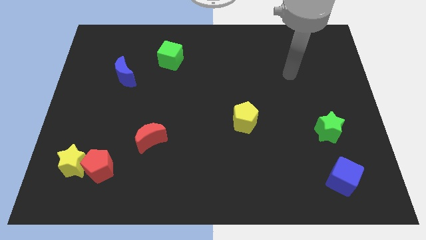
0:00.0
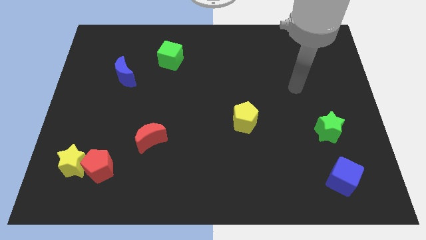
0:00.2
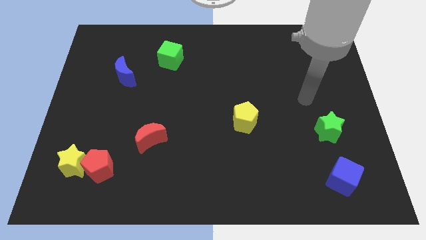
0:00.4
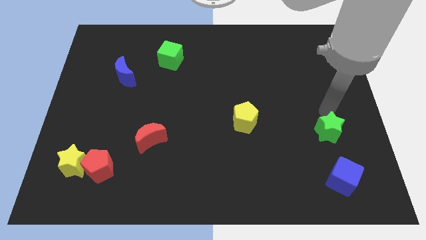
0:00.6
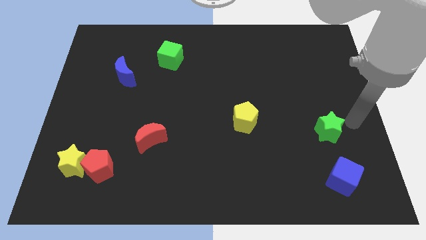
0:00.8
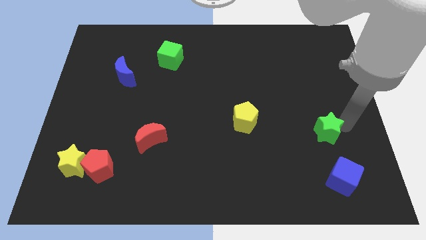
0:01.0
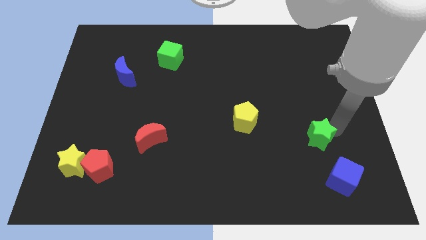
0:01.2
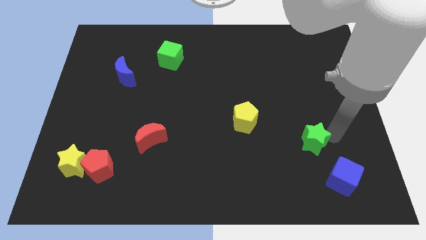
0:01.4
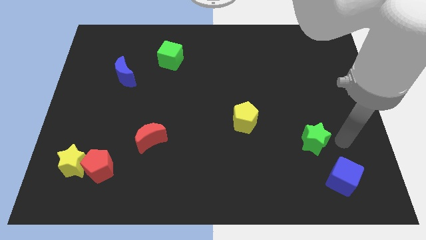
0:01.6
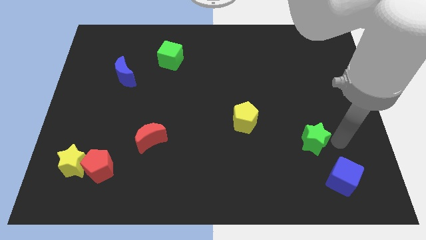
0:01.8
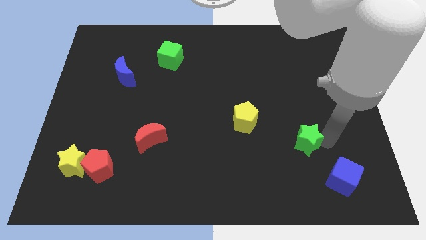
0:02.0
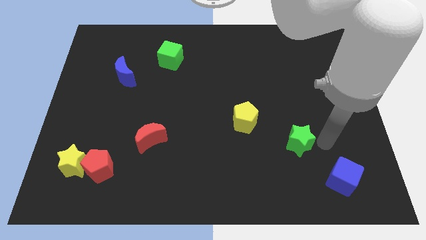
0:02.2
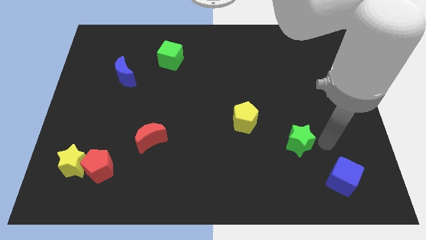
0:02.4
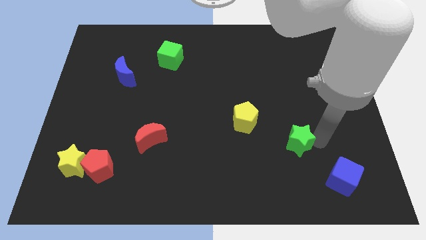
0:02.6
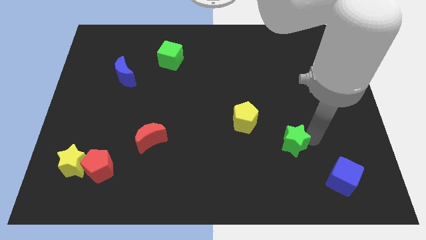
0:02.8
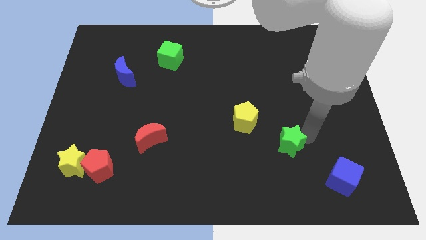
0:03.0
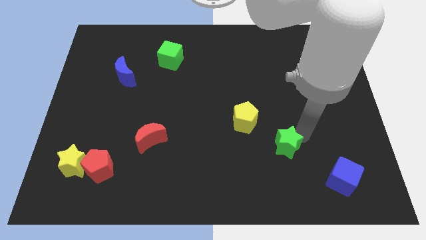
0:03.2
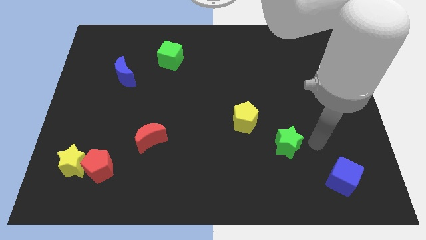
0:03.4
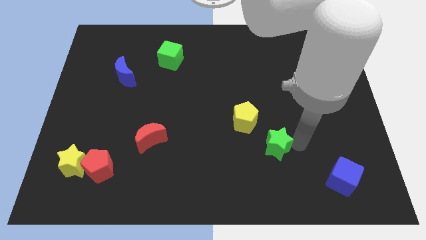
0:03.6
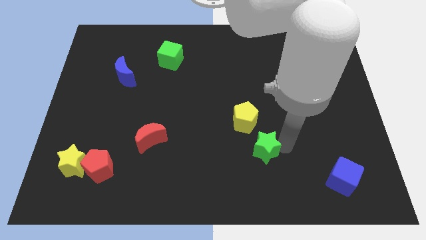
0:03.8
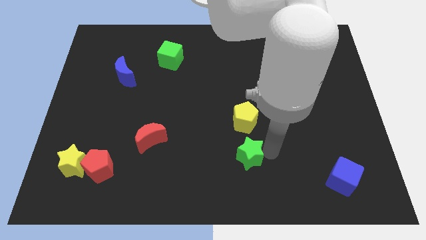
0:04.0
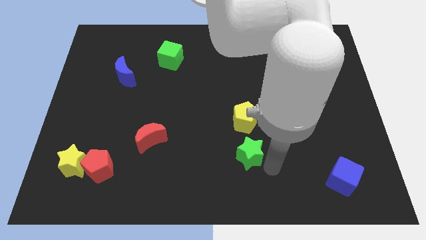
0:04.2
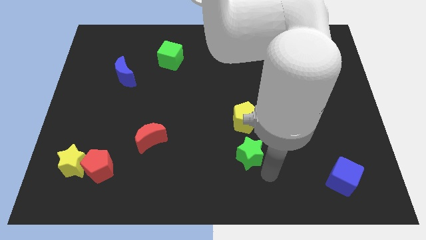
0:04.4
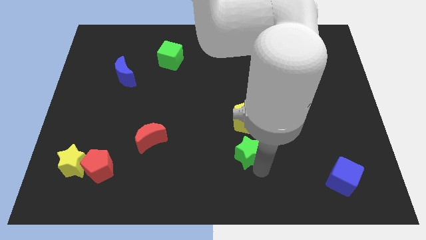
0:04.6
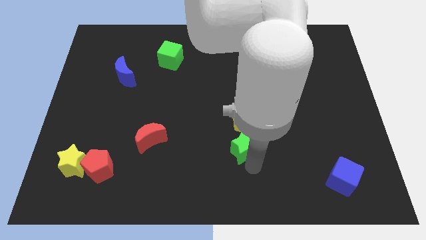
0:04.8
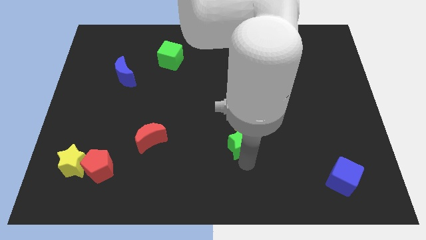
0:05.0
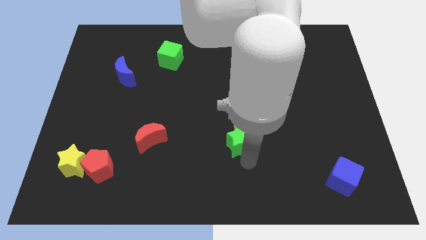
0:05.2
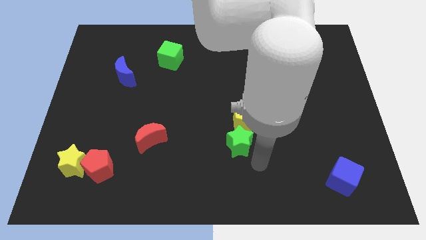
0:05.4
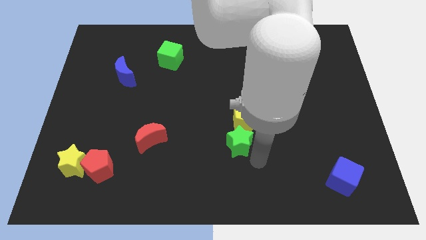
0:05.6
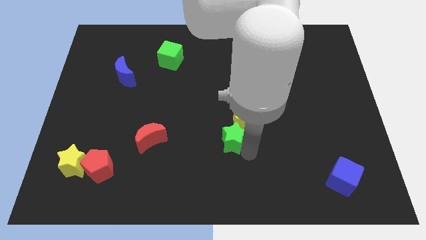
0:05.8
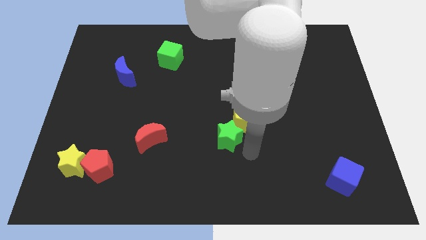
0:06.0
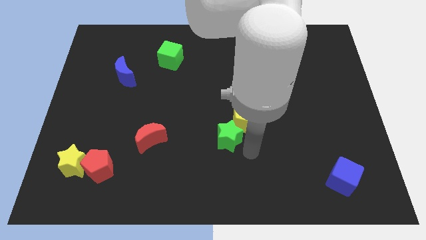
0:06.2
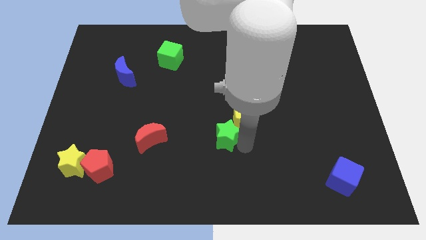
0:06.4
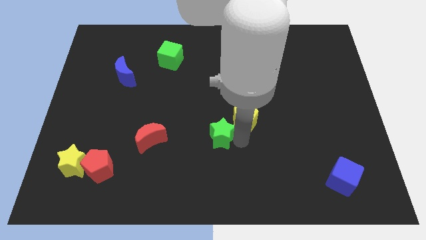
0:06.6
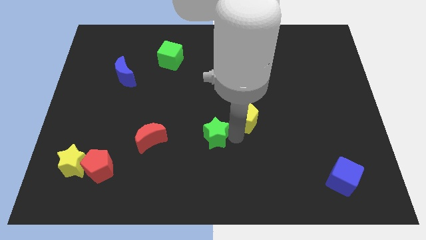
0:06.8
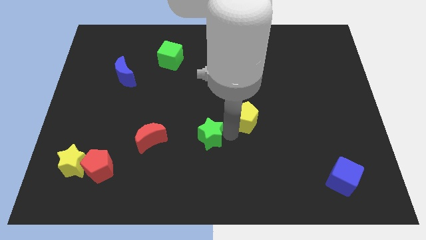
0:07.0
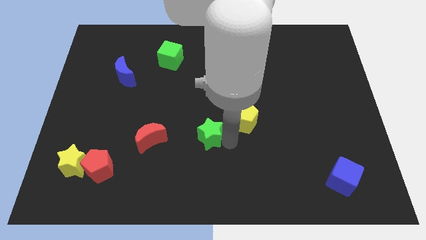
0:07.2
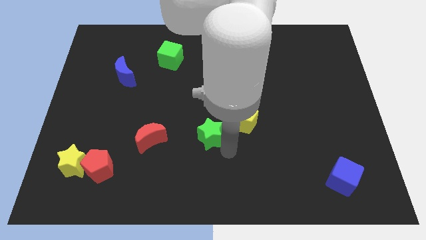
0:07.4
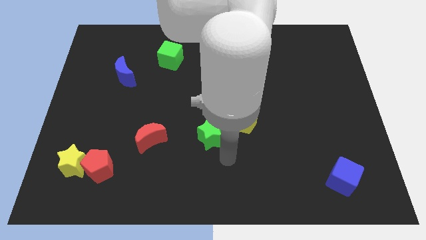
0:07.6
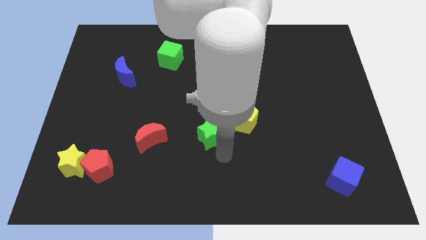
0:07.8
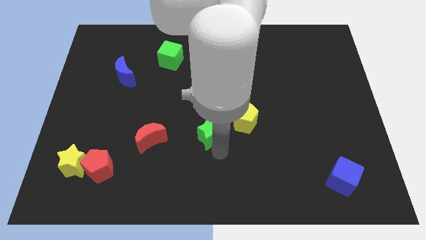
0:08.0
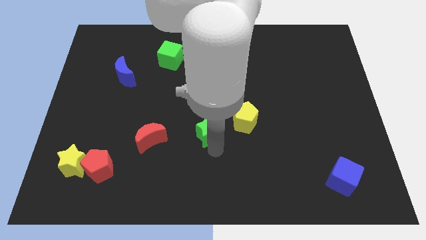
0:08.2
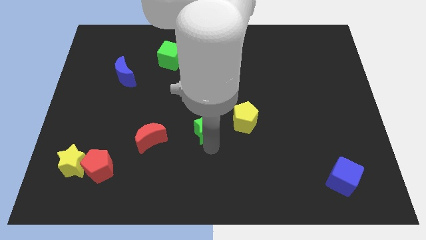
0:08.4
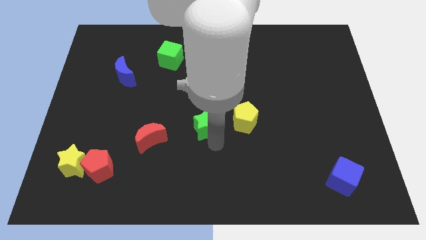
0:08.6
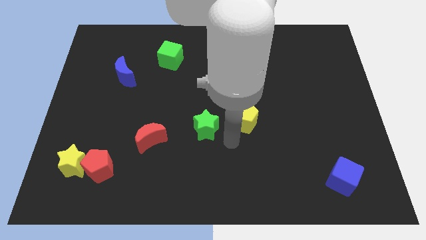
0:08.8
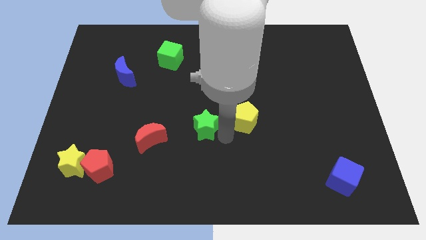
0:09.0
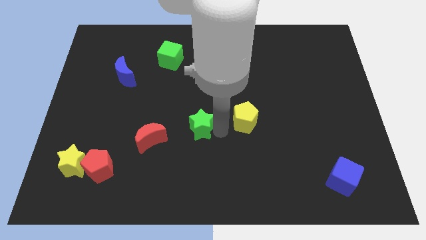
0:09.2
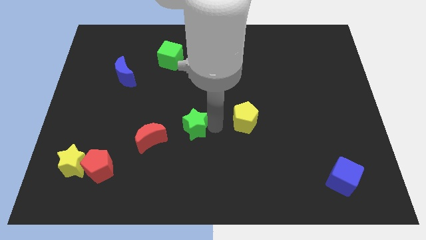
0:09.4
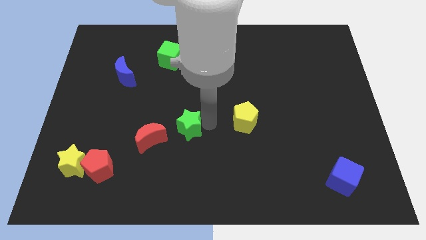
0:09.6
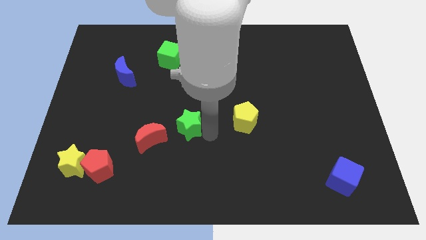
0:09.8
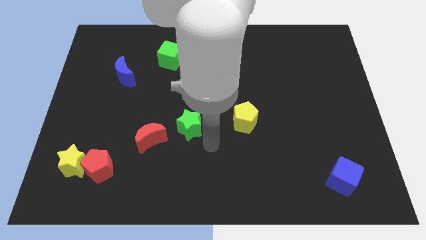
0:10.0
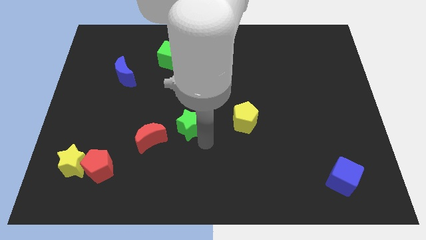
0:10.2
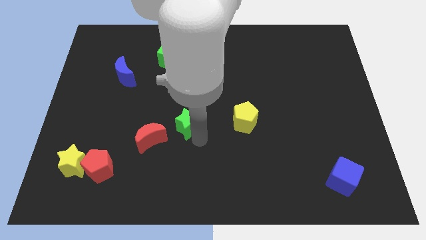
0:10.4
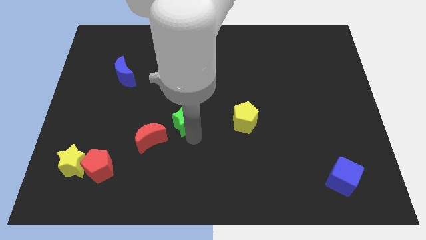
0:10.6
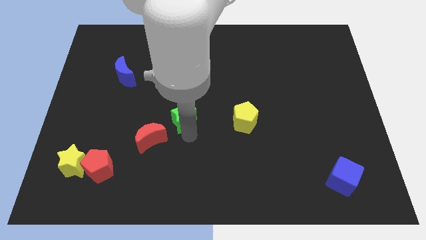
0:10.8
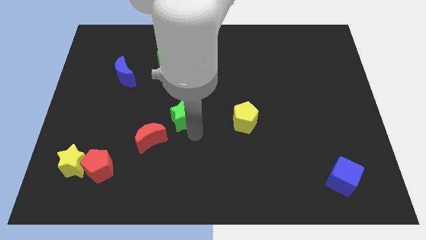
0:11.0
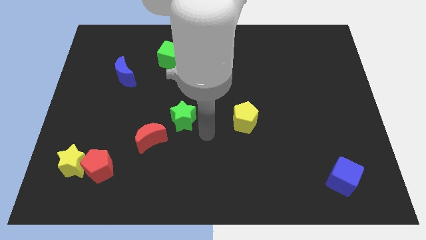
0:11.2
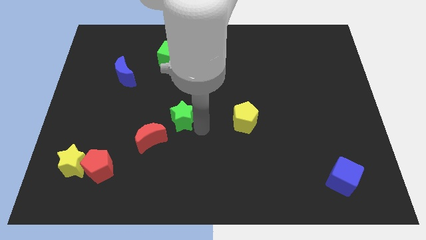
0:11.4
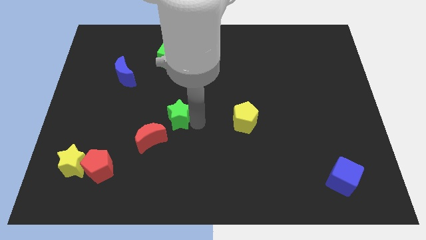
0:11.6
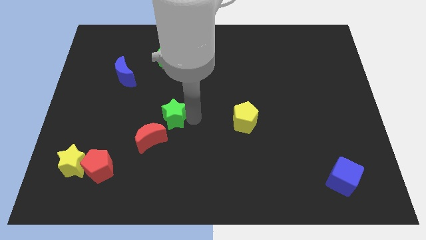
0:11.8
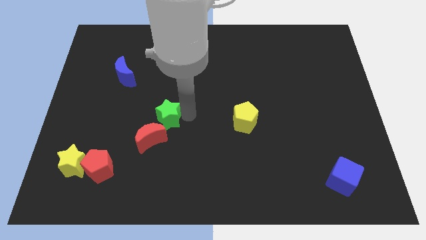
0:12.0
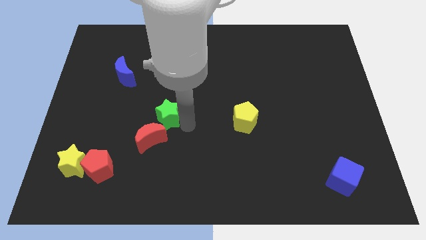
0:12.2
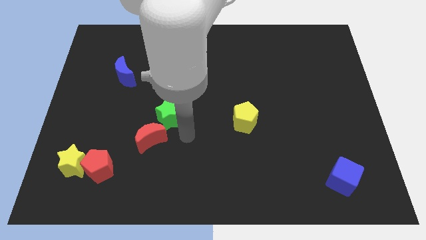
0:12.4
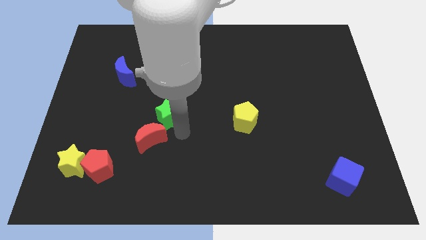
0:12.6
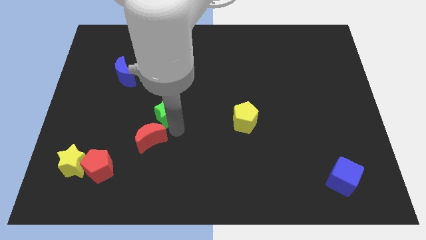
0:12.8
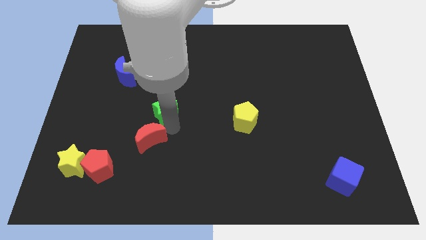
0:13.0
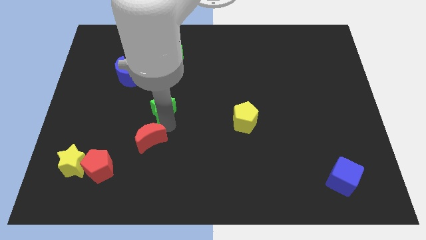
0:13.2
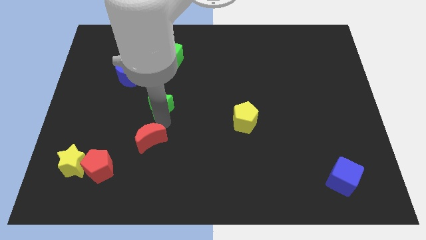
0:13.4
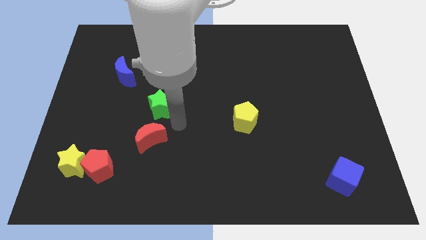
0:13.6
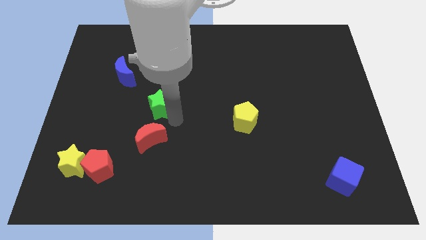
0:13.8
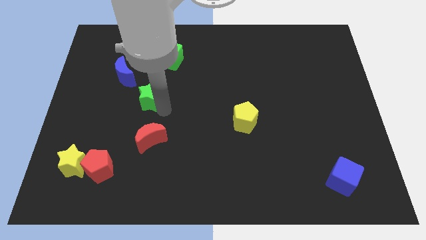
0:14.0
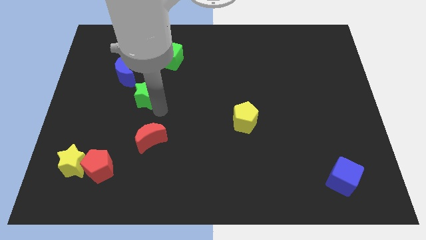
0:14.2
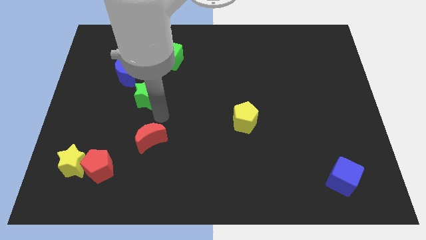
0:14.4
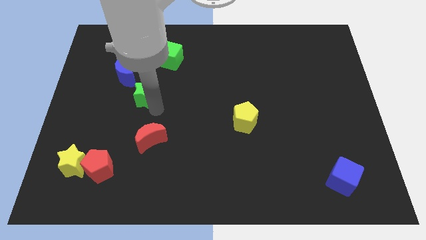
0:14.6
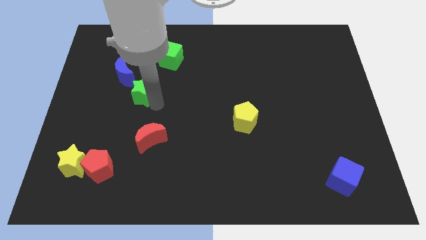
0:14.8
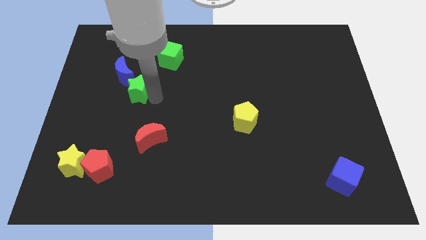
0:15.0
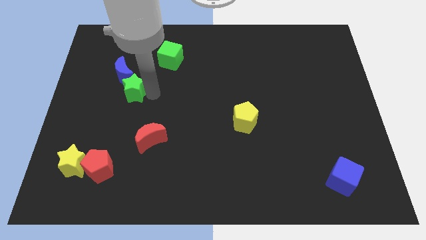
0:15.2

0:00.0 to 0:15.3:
move the green star to the blue moon

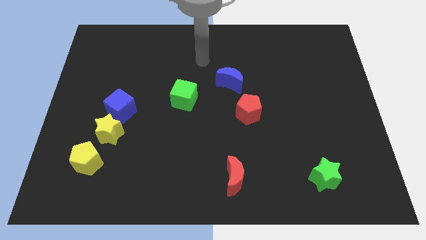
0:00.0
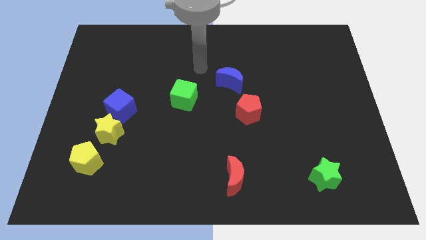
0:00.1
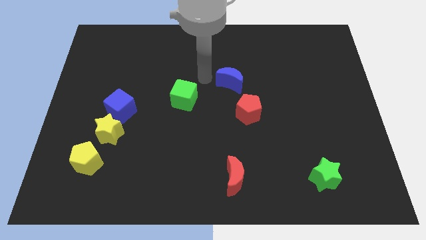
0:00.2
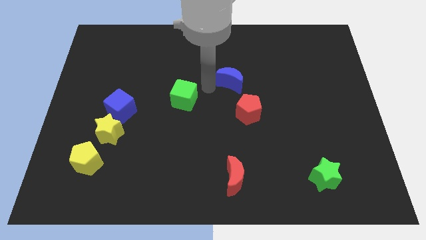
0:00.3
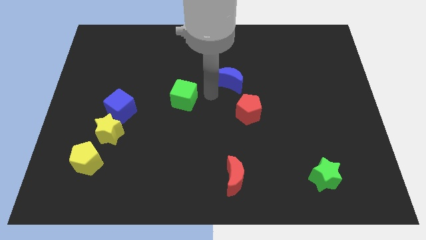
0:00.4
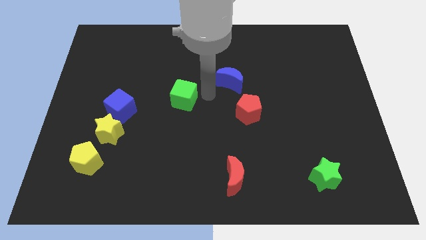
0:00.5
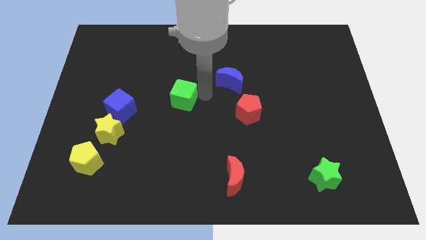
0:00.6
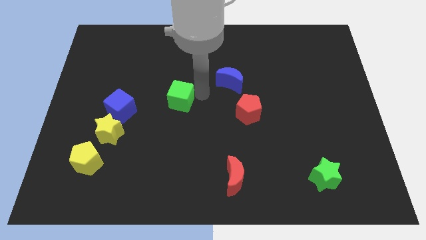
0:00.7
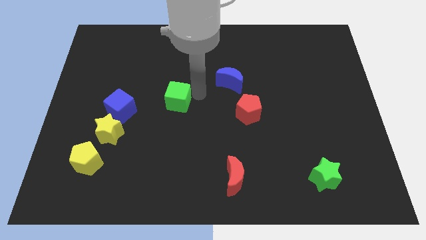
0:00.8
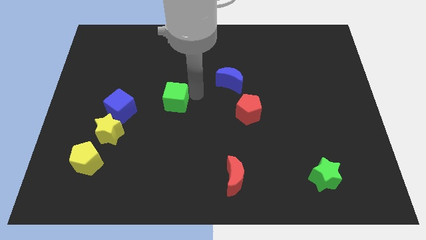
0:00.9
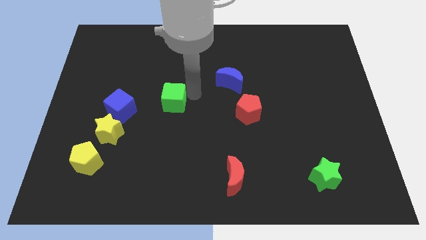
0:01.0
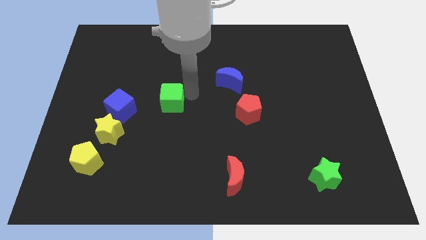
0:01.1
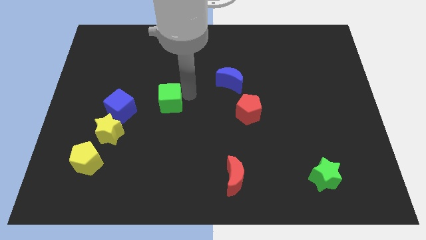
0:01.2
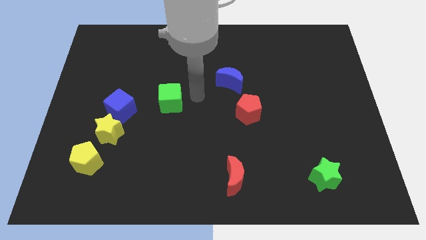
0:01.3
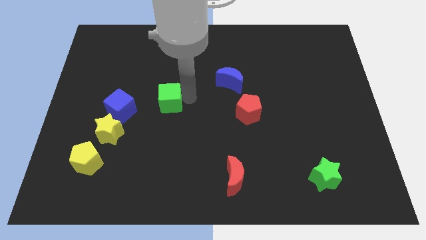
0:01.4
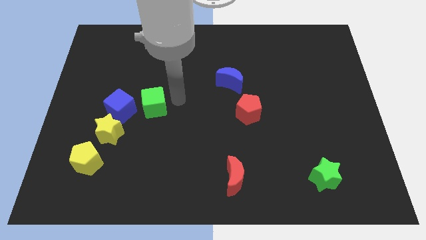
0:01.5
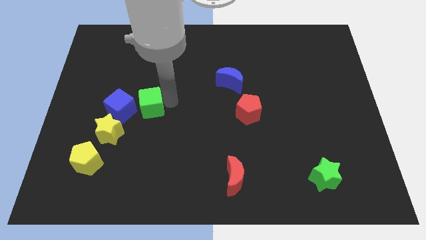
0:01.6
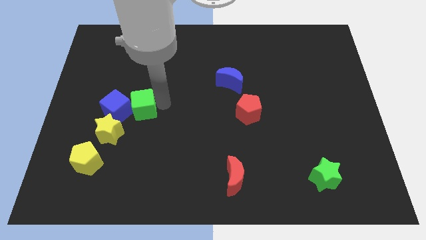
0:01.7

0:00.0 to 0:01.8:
move the green cube towards the blue cube
